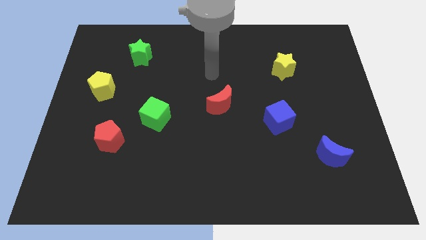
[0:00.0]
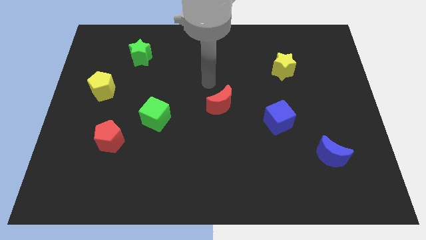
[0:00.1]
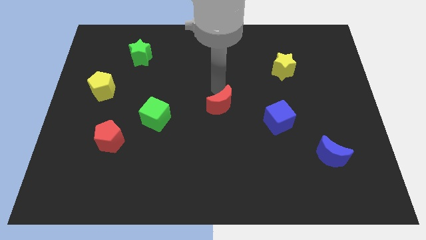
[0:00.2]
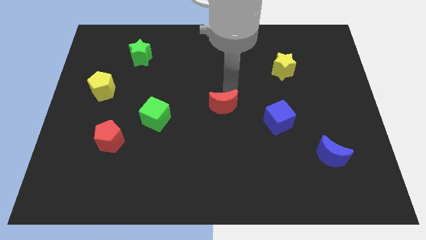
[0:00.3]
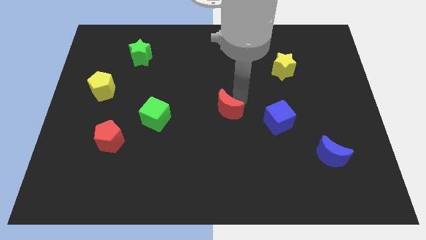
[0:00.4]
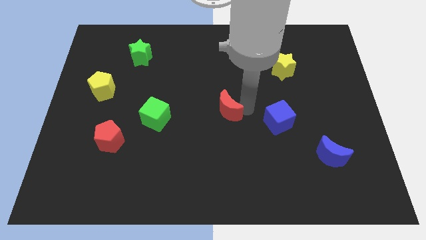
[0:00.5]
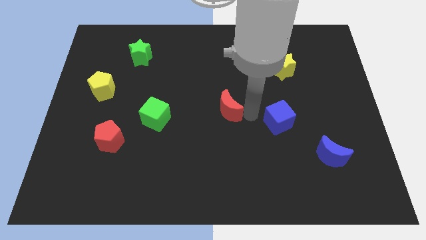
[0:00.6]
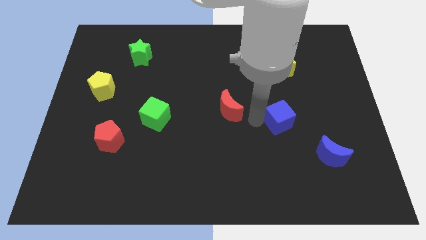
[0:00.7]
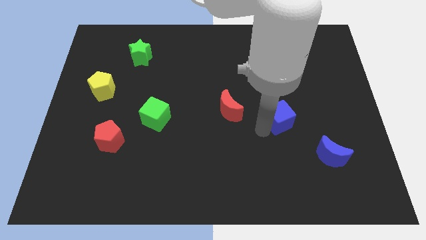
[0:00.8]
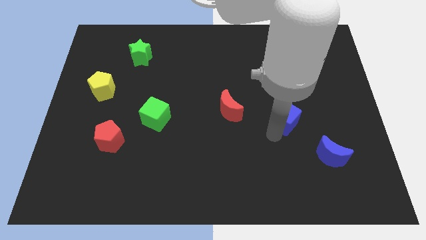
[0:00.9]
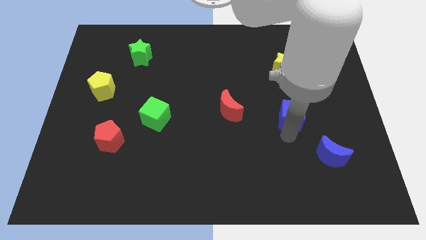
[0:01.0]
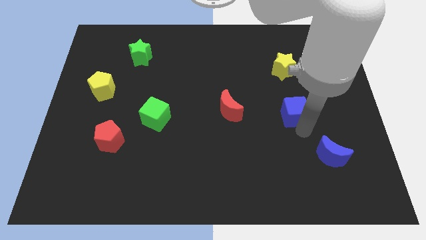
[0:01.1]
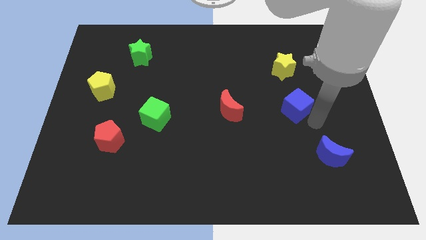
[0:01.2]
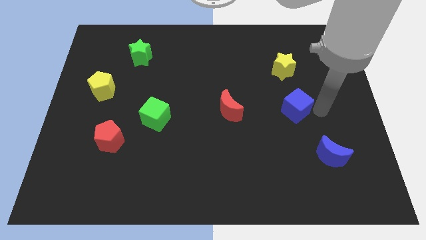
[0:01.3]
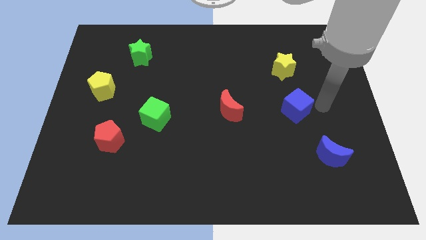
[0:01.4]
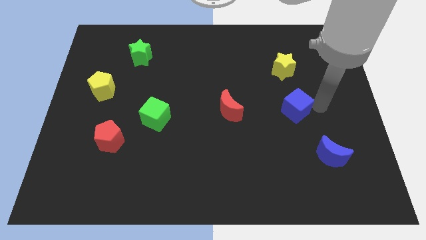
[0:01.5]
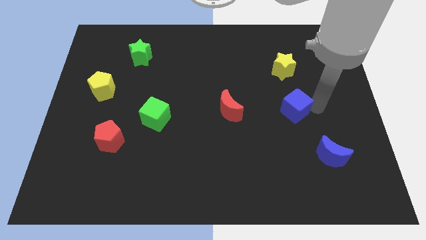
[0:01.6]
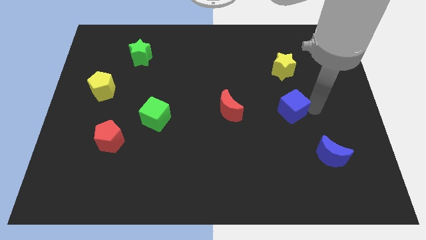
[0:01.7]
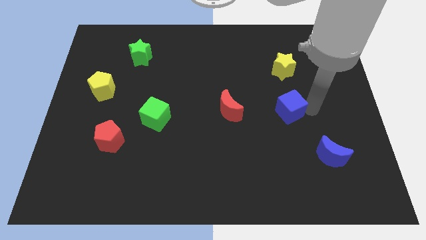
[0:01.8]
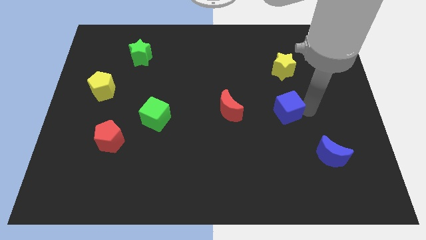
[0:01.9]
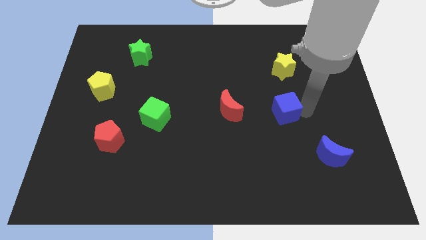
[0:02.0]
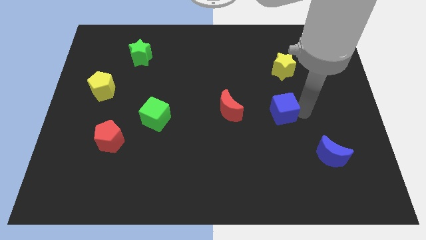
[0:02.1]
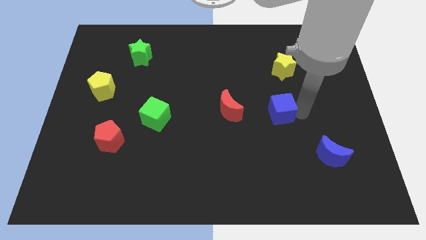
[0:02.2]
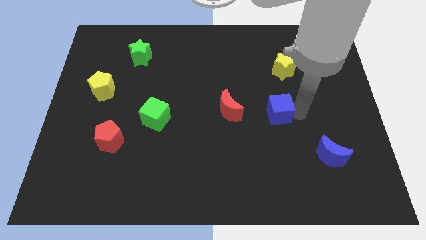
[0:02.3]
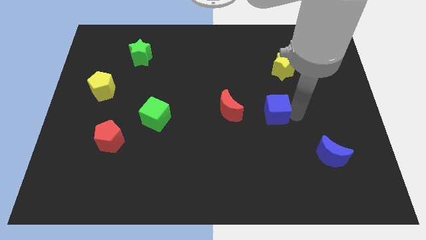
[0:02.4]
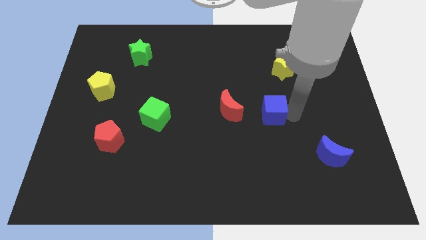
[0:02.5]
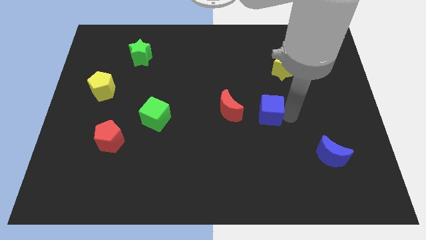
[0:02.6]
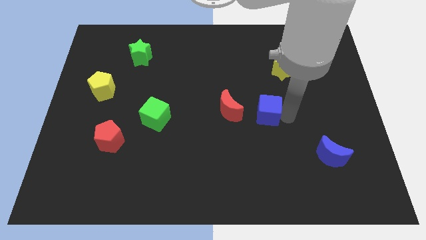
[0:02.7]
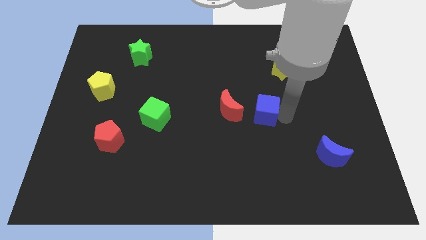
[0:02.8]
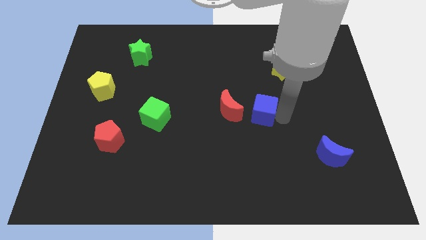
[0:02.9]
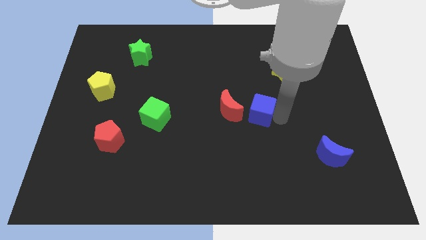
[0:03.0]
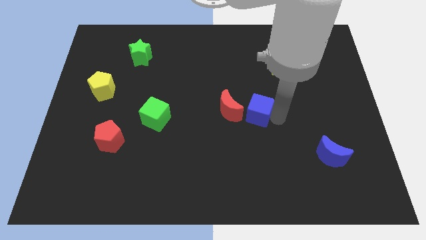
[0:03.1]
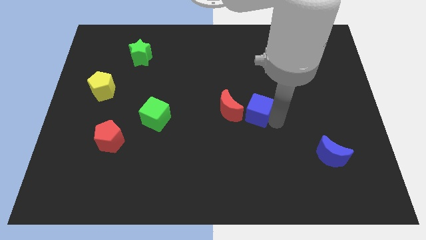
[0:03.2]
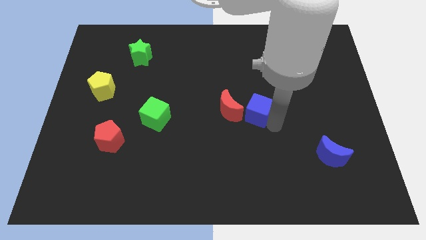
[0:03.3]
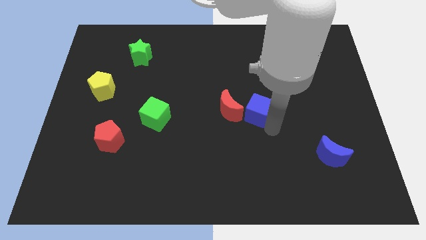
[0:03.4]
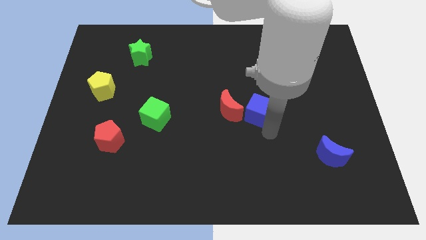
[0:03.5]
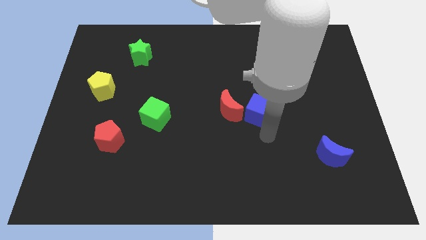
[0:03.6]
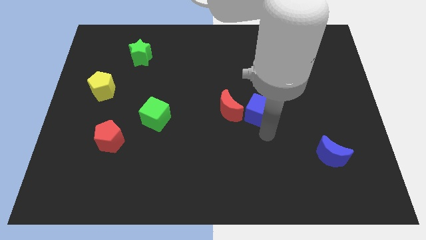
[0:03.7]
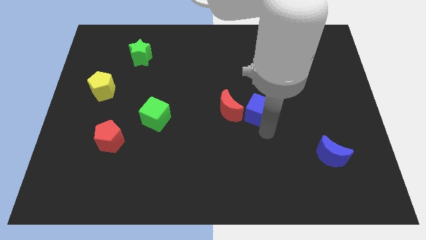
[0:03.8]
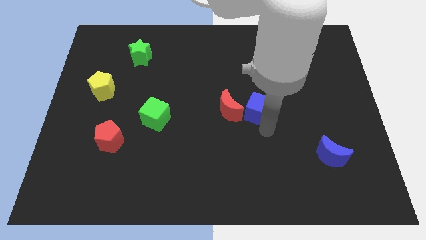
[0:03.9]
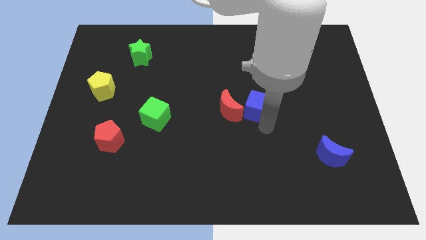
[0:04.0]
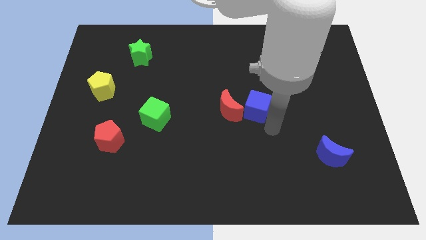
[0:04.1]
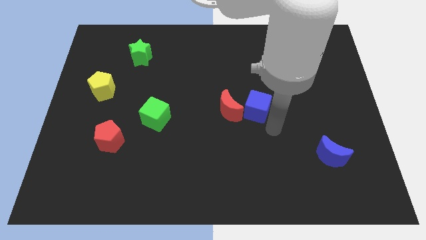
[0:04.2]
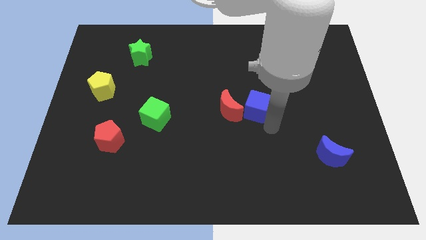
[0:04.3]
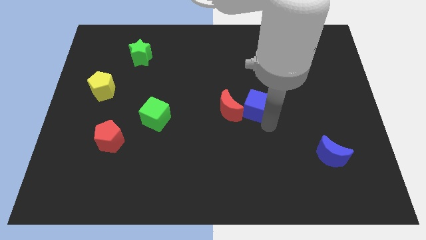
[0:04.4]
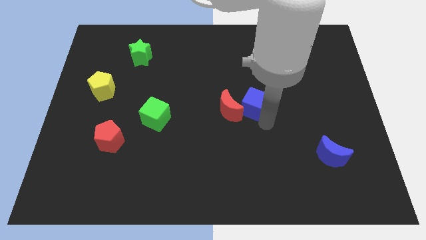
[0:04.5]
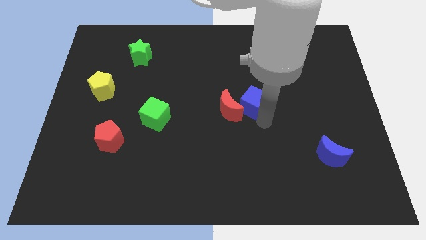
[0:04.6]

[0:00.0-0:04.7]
slide the blue cube upwards and then left a little bit

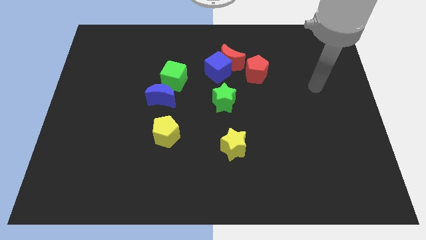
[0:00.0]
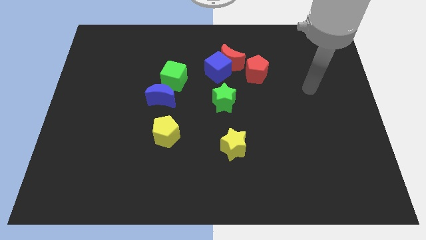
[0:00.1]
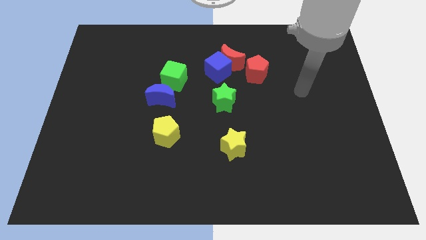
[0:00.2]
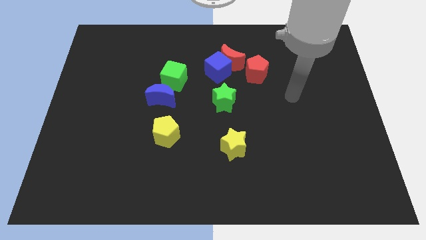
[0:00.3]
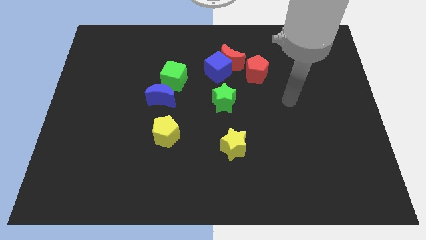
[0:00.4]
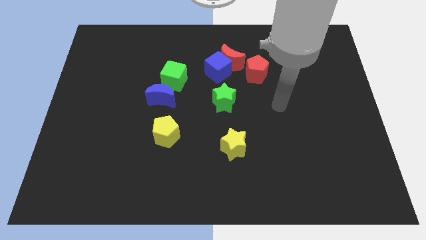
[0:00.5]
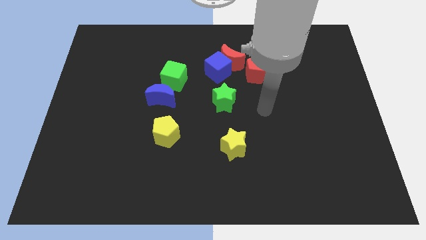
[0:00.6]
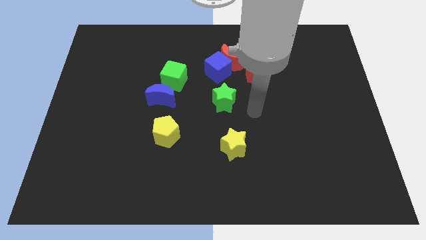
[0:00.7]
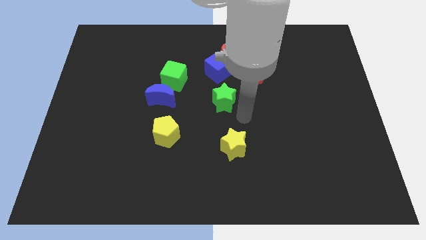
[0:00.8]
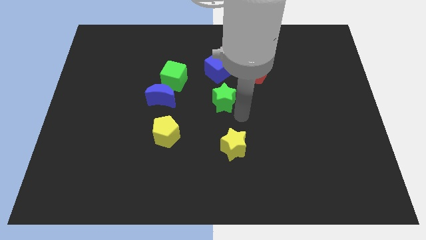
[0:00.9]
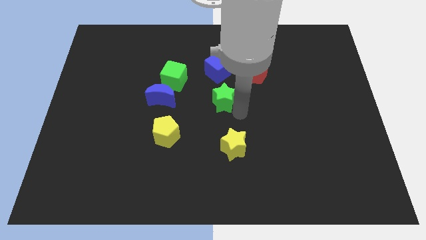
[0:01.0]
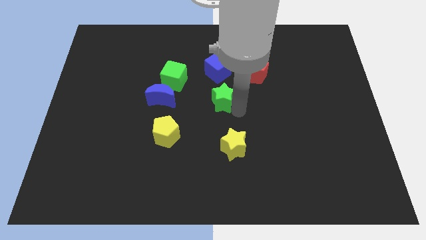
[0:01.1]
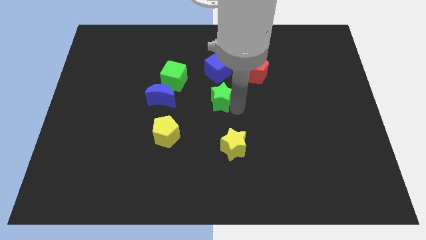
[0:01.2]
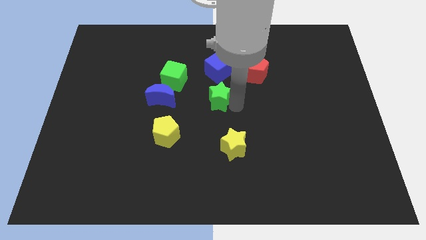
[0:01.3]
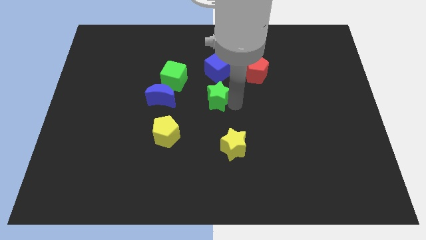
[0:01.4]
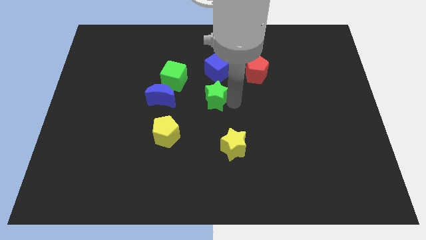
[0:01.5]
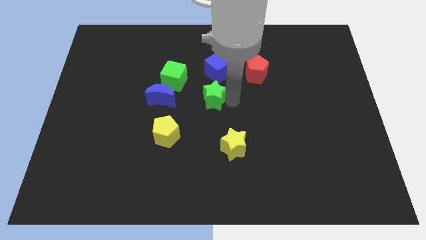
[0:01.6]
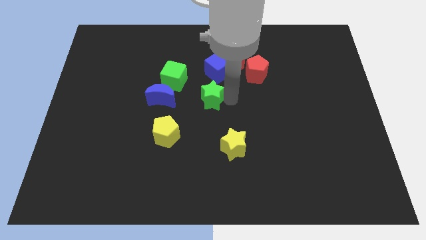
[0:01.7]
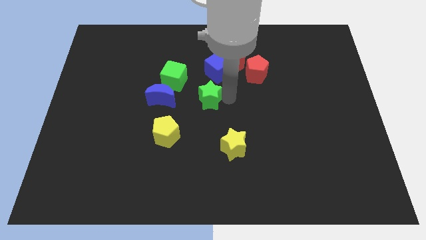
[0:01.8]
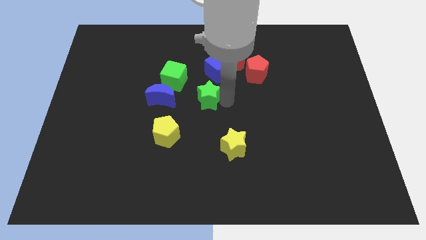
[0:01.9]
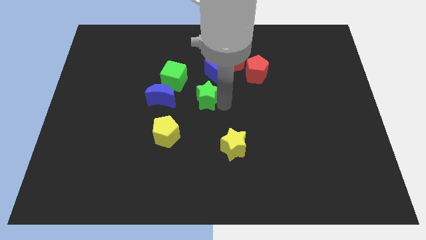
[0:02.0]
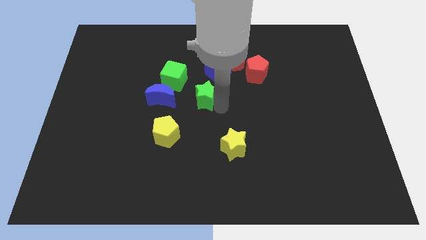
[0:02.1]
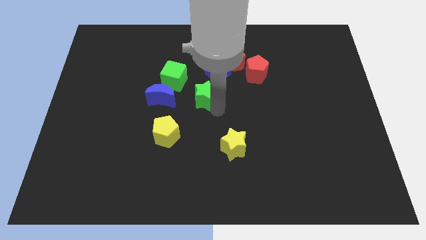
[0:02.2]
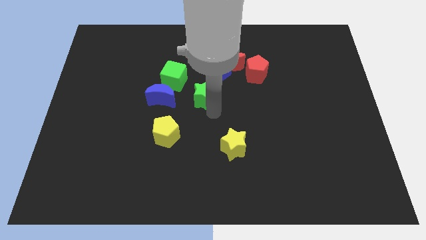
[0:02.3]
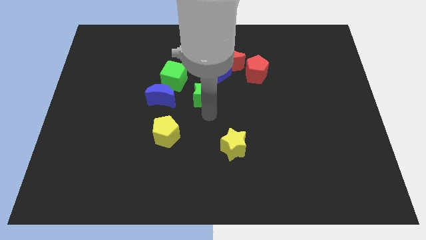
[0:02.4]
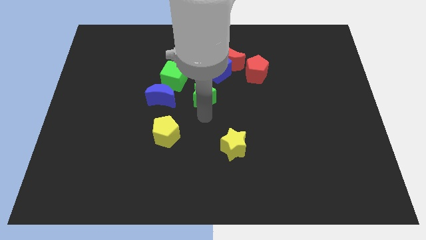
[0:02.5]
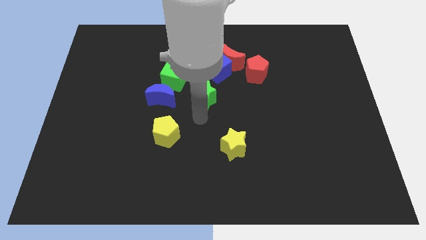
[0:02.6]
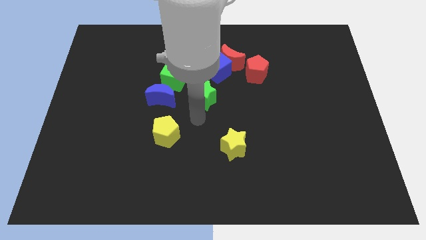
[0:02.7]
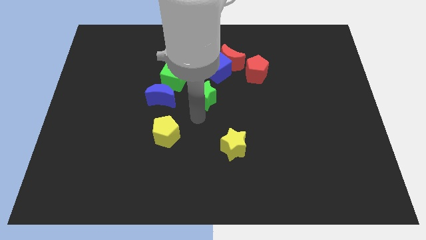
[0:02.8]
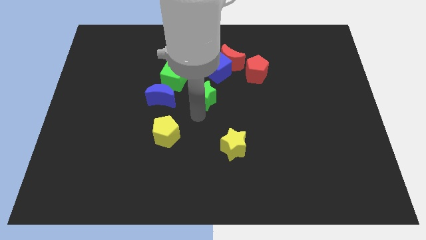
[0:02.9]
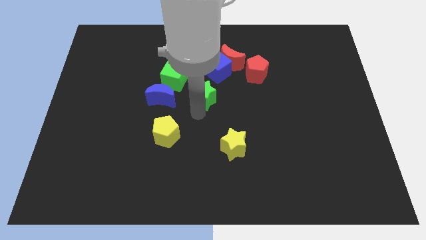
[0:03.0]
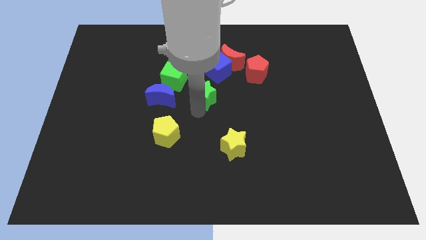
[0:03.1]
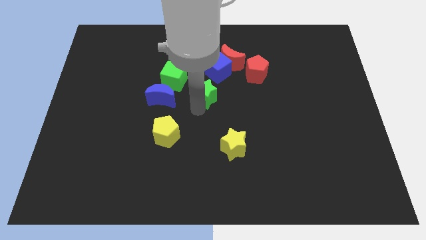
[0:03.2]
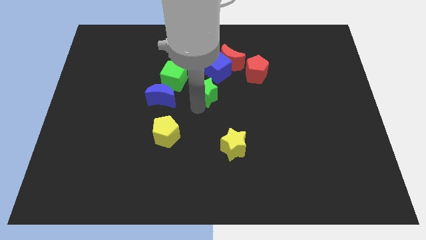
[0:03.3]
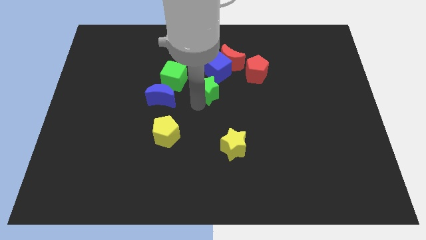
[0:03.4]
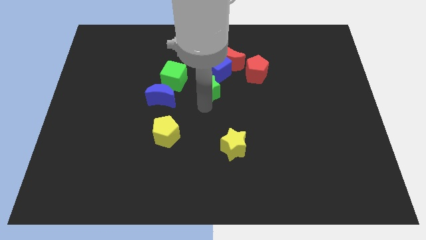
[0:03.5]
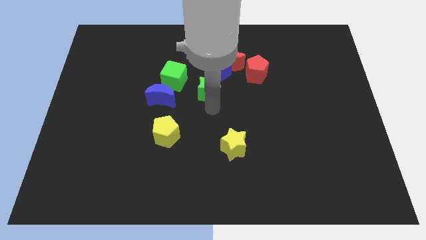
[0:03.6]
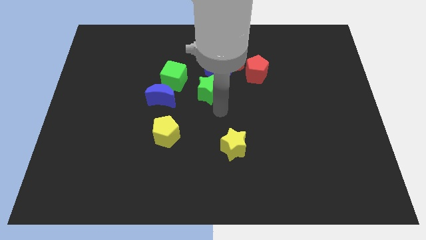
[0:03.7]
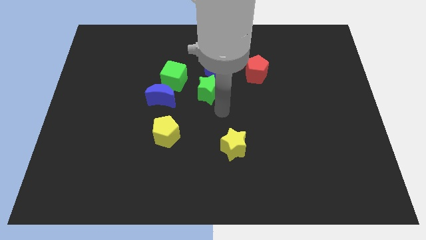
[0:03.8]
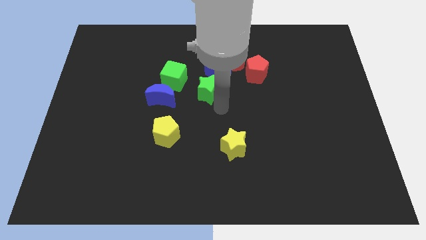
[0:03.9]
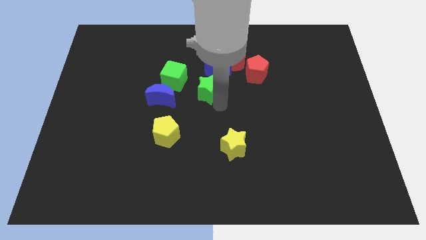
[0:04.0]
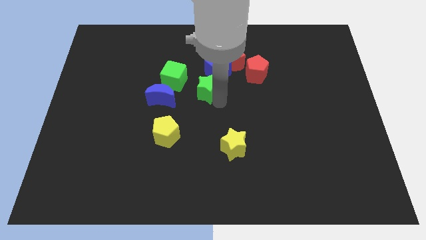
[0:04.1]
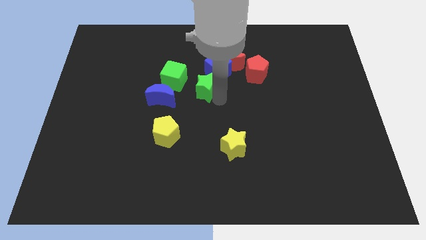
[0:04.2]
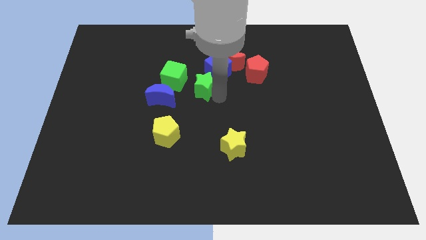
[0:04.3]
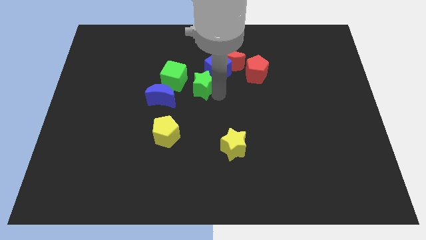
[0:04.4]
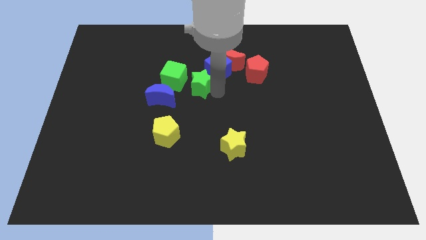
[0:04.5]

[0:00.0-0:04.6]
slide the green star diagonally up and left somewhat
